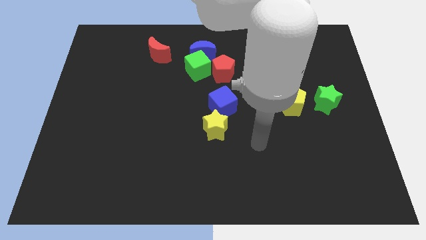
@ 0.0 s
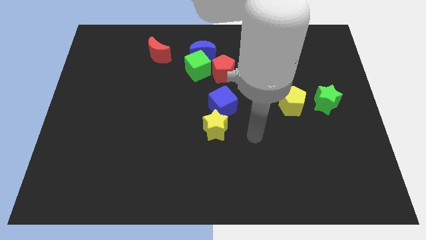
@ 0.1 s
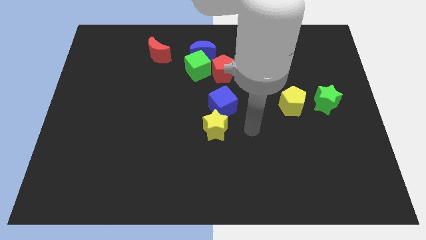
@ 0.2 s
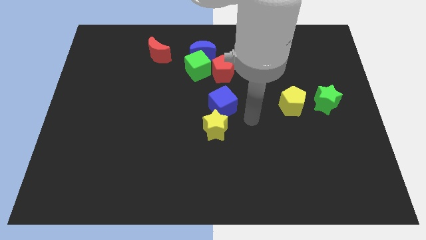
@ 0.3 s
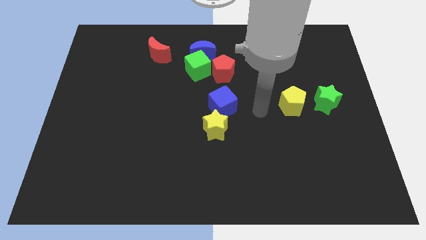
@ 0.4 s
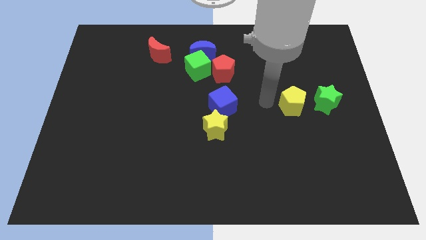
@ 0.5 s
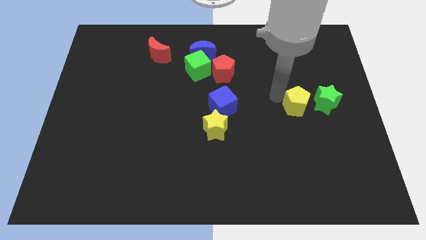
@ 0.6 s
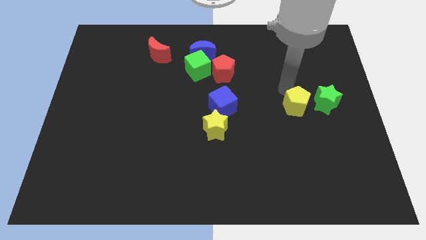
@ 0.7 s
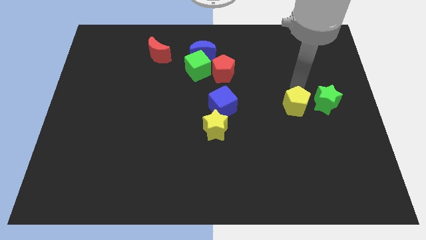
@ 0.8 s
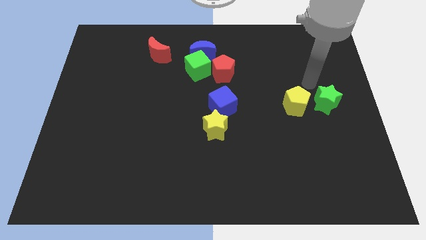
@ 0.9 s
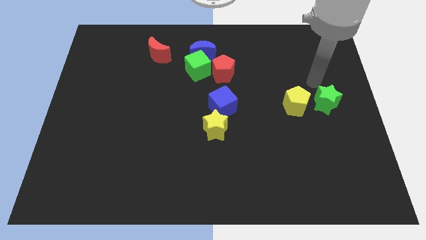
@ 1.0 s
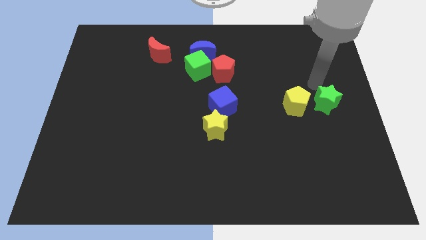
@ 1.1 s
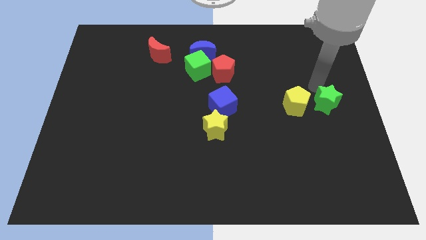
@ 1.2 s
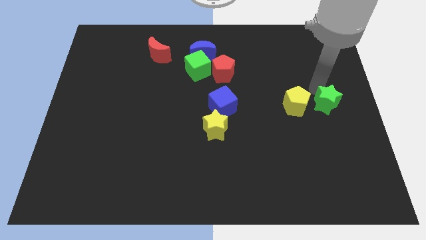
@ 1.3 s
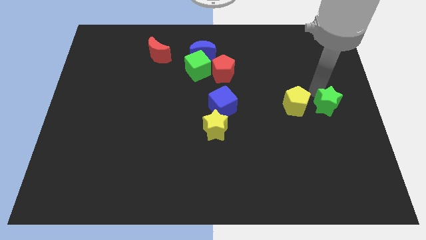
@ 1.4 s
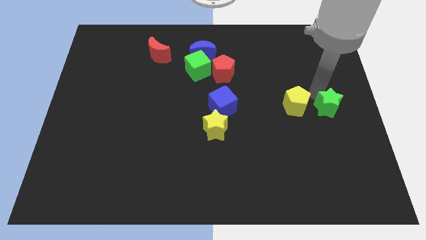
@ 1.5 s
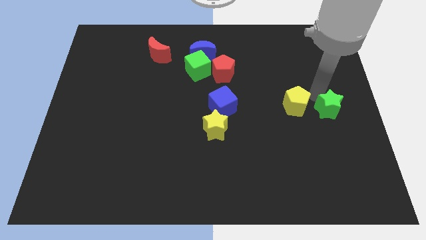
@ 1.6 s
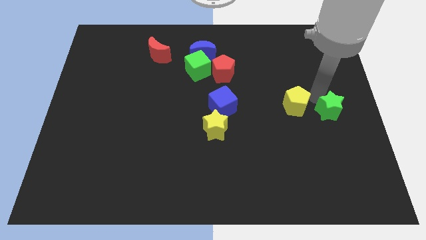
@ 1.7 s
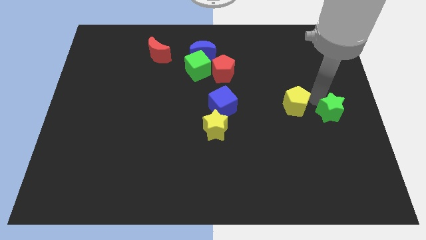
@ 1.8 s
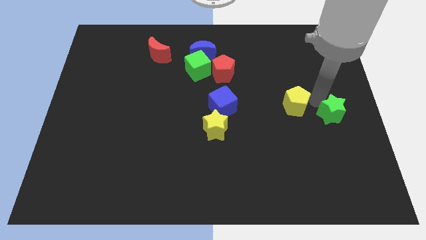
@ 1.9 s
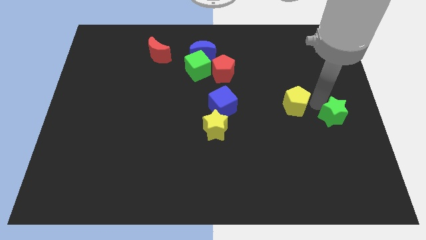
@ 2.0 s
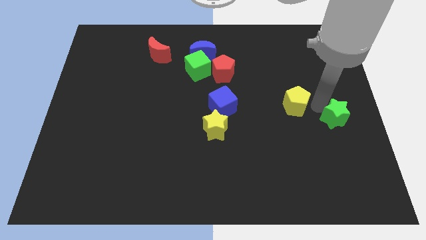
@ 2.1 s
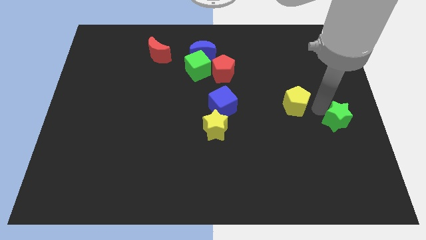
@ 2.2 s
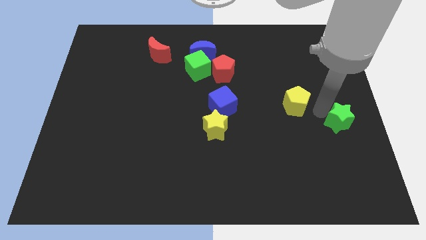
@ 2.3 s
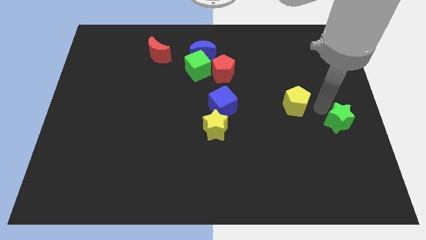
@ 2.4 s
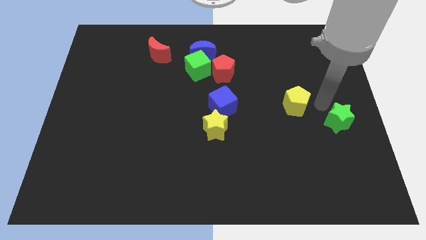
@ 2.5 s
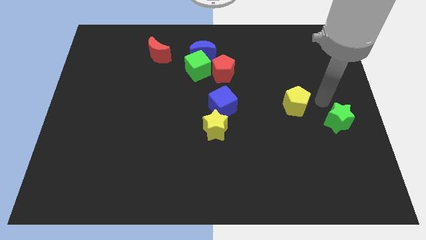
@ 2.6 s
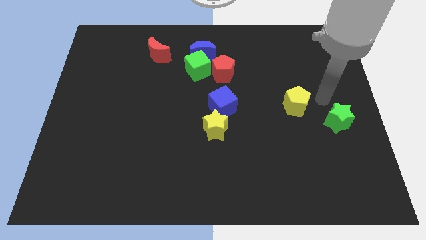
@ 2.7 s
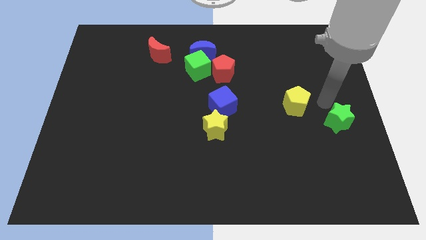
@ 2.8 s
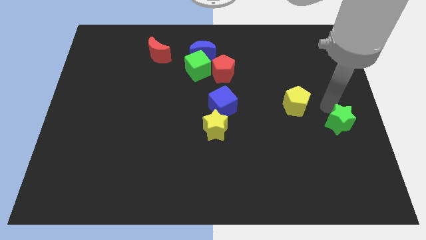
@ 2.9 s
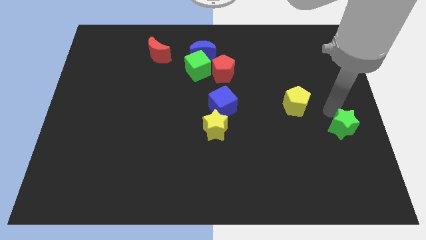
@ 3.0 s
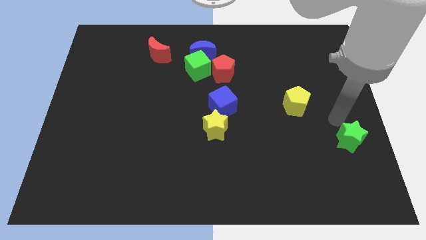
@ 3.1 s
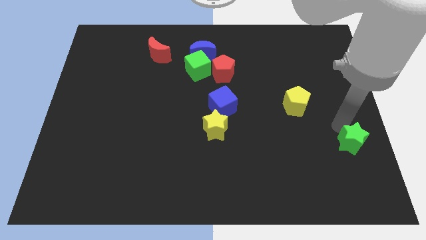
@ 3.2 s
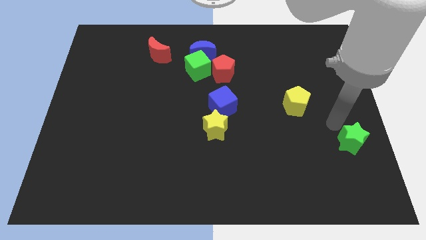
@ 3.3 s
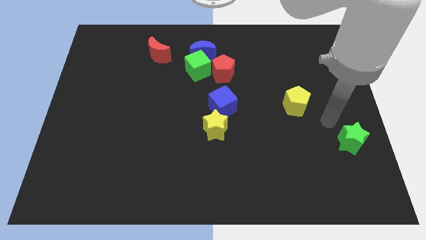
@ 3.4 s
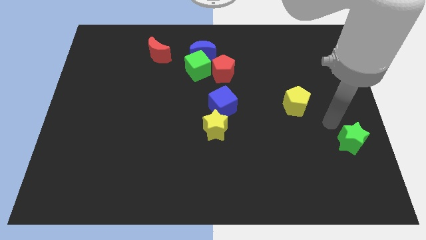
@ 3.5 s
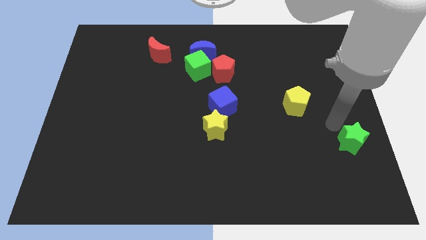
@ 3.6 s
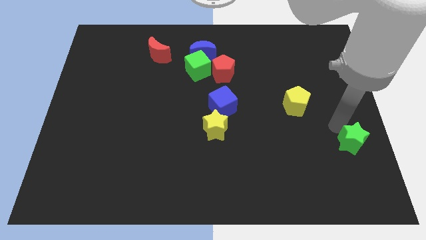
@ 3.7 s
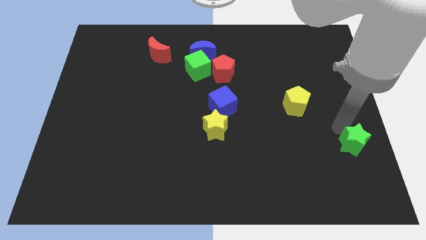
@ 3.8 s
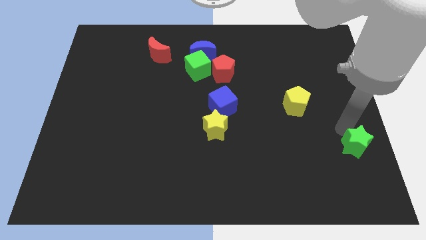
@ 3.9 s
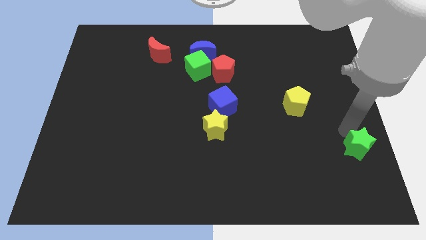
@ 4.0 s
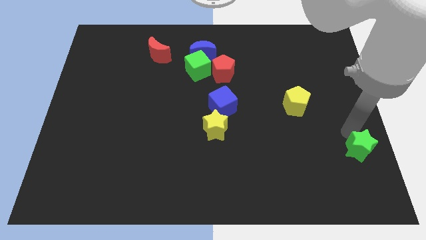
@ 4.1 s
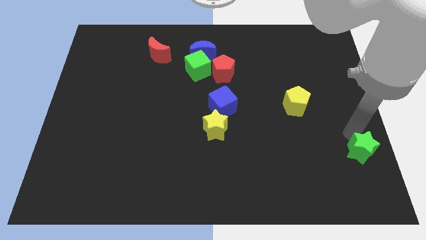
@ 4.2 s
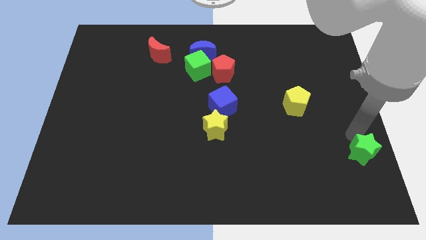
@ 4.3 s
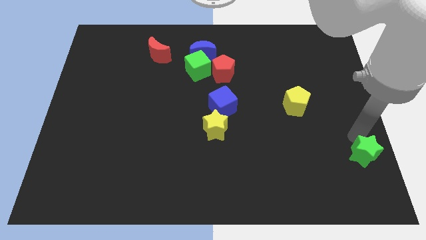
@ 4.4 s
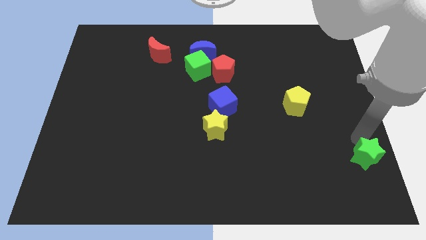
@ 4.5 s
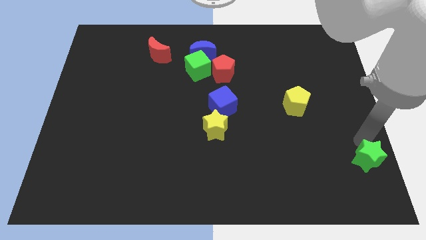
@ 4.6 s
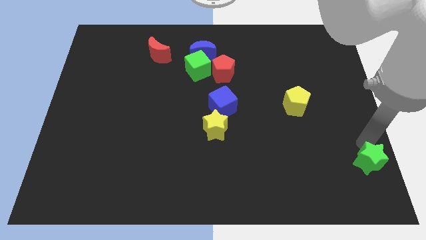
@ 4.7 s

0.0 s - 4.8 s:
push the green star to the lower right corner

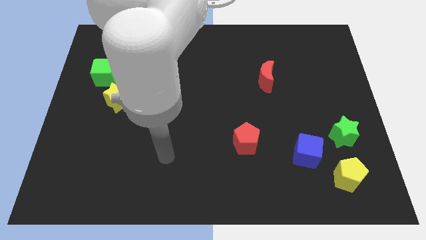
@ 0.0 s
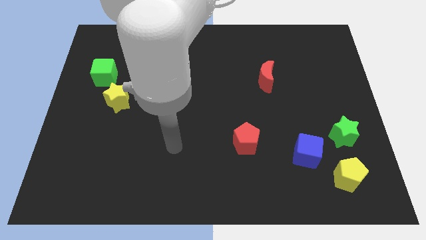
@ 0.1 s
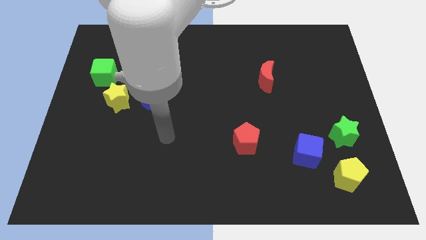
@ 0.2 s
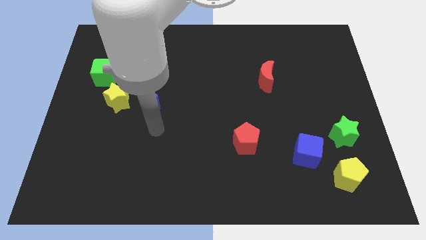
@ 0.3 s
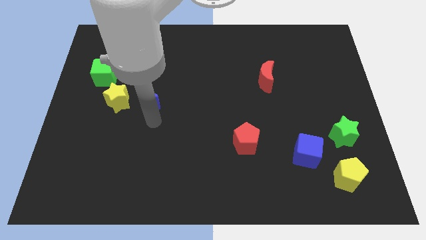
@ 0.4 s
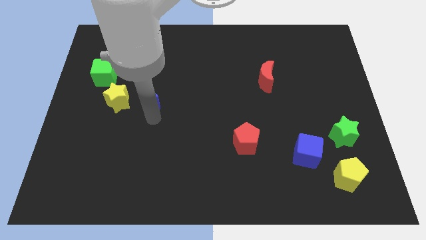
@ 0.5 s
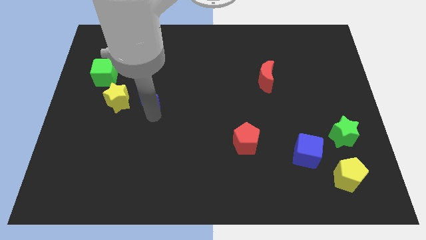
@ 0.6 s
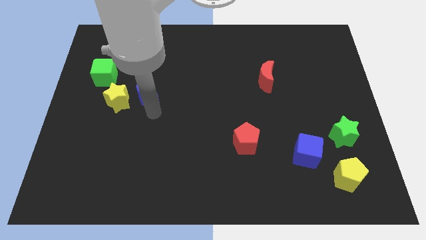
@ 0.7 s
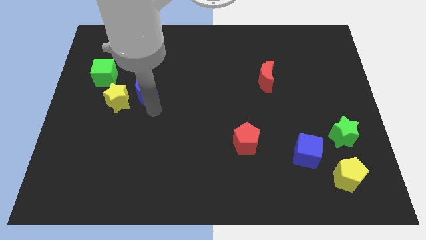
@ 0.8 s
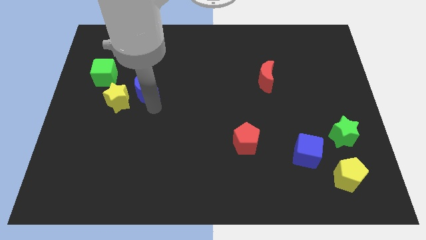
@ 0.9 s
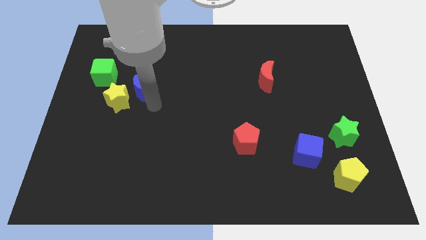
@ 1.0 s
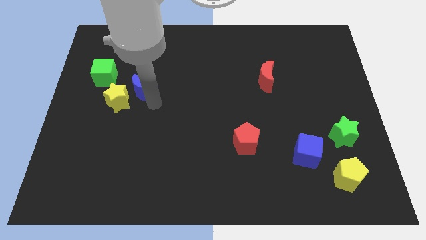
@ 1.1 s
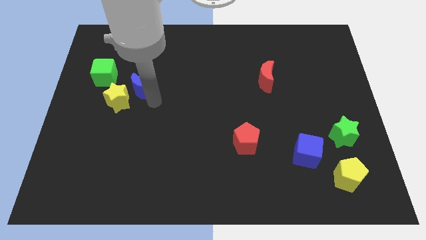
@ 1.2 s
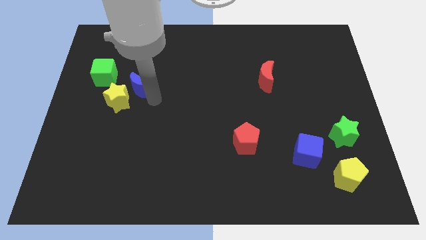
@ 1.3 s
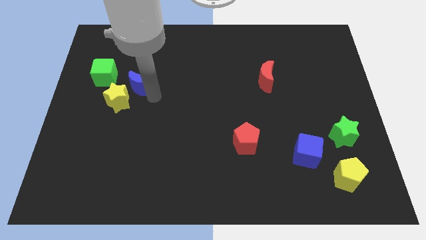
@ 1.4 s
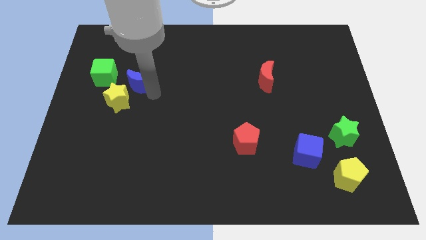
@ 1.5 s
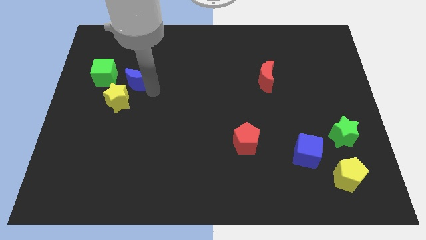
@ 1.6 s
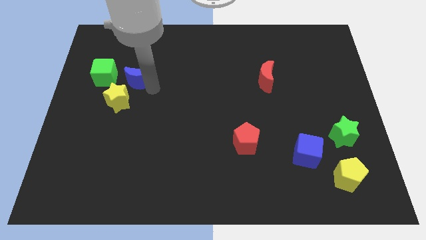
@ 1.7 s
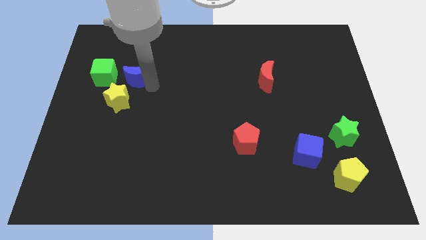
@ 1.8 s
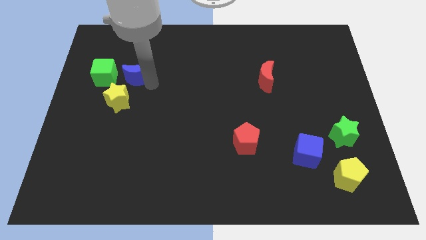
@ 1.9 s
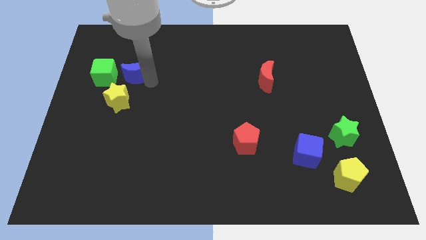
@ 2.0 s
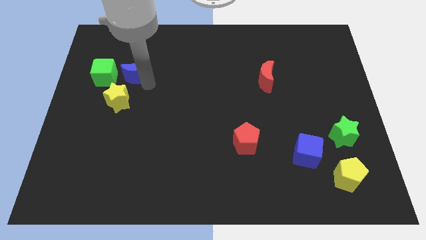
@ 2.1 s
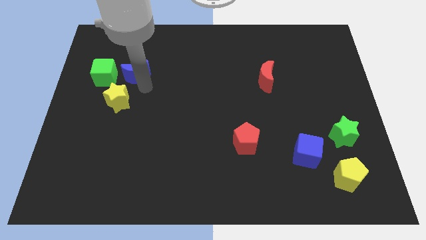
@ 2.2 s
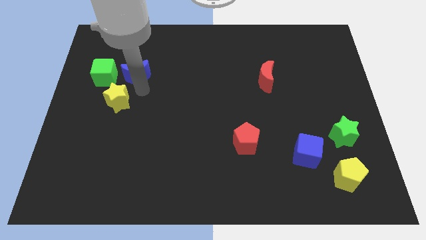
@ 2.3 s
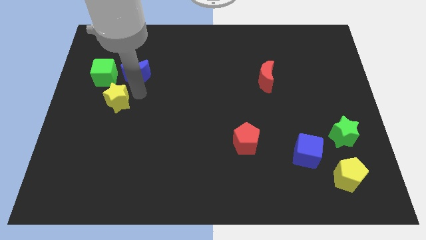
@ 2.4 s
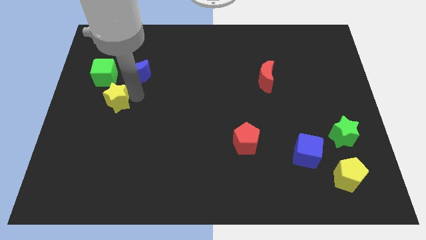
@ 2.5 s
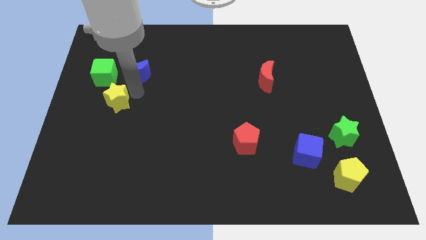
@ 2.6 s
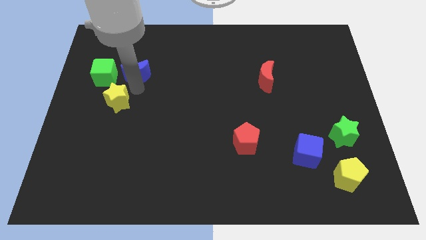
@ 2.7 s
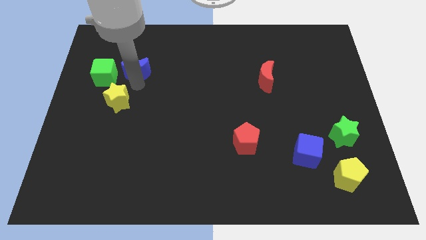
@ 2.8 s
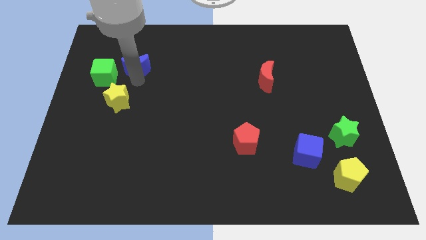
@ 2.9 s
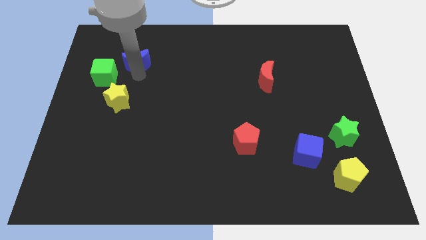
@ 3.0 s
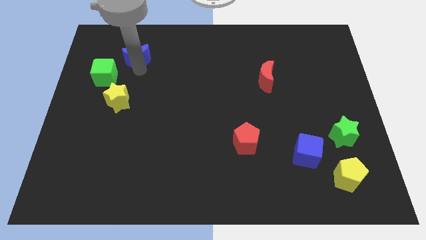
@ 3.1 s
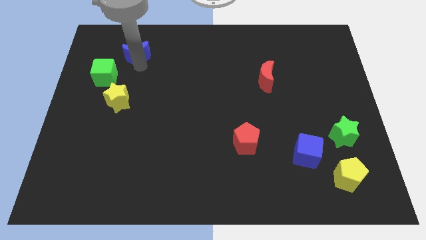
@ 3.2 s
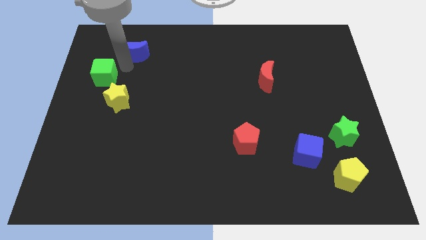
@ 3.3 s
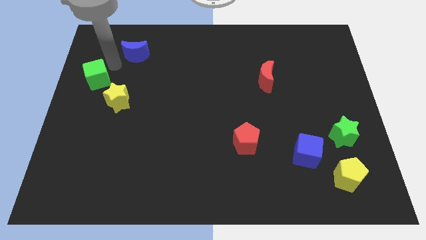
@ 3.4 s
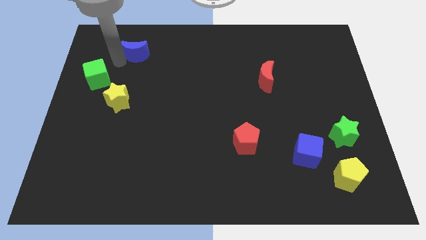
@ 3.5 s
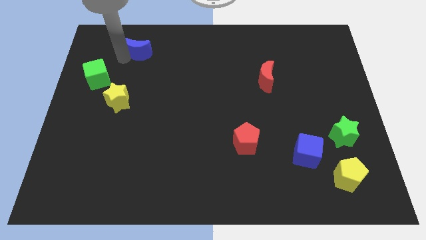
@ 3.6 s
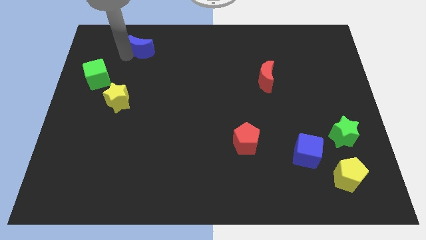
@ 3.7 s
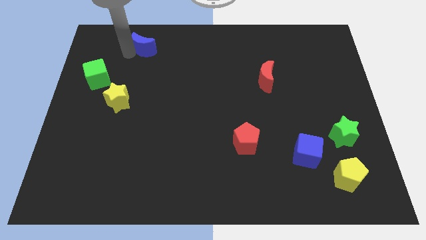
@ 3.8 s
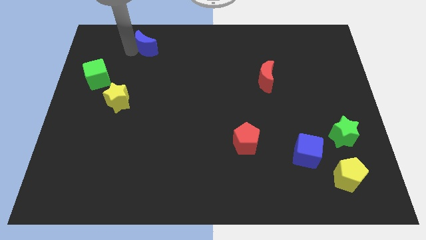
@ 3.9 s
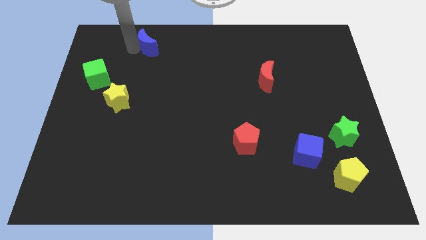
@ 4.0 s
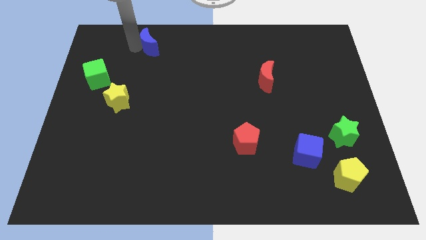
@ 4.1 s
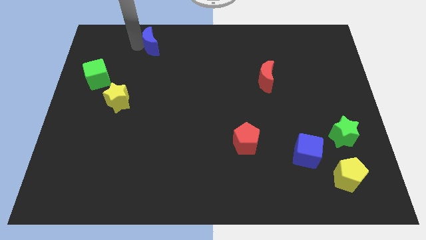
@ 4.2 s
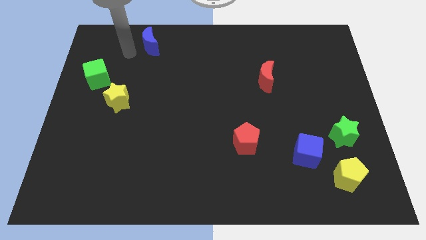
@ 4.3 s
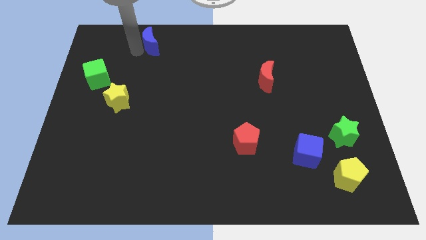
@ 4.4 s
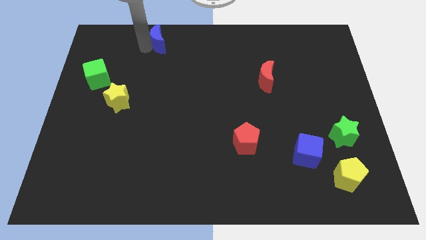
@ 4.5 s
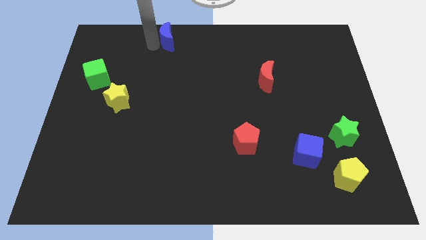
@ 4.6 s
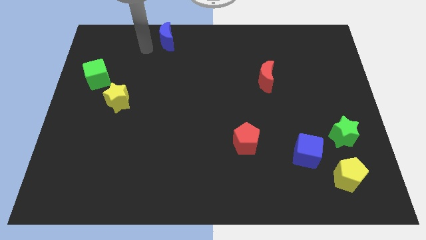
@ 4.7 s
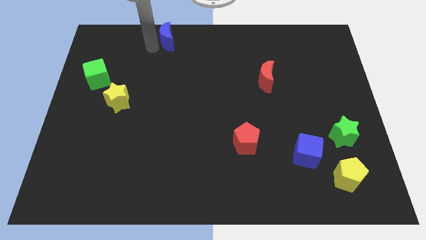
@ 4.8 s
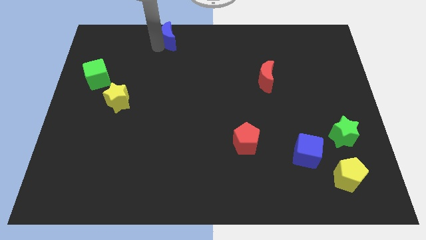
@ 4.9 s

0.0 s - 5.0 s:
put the blue moon to the top side
